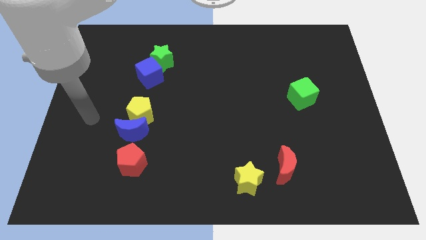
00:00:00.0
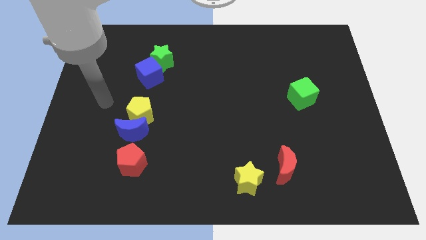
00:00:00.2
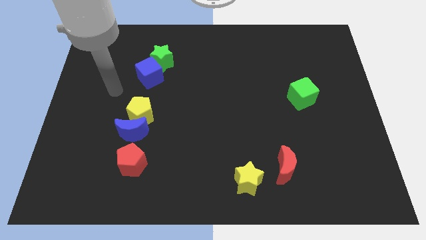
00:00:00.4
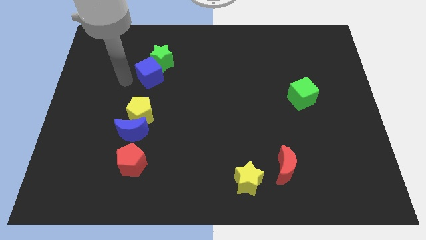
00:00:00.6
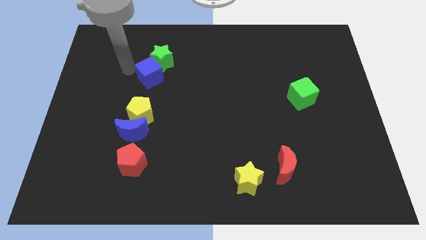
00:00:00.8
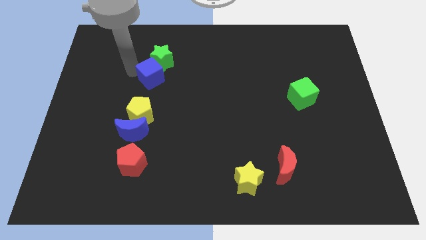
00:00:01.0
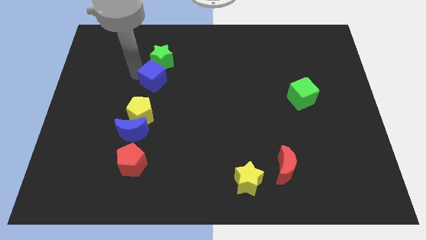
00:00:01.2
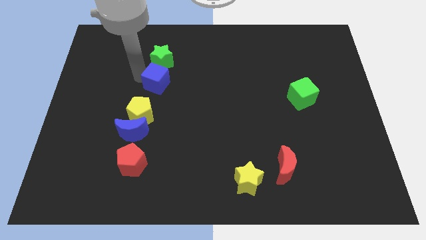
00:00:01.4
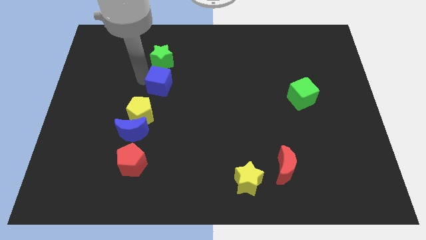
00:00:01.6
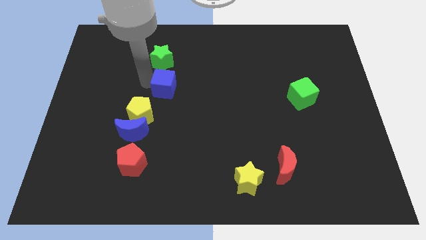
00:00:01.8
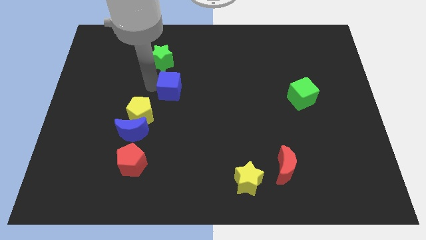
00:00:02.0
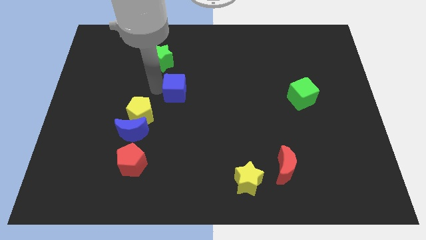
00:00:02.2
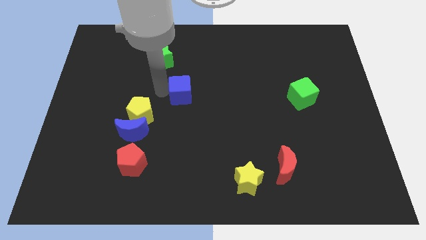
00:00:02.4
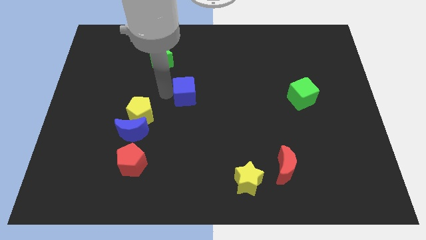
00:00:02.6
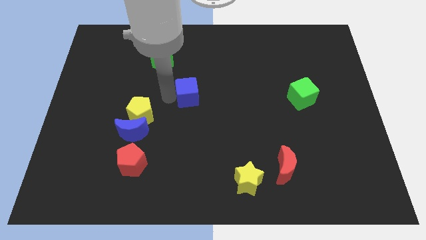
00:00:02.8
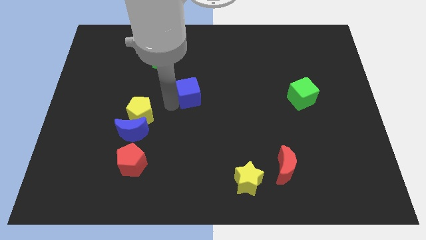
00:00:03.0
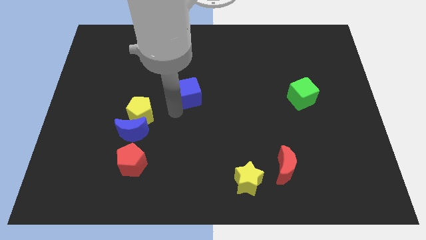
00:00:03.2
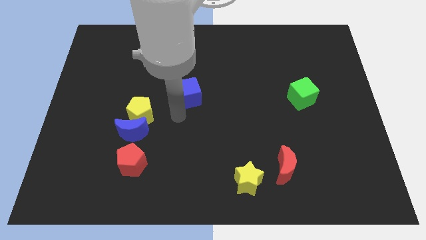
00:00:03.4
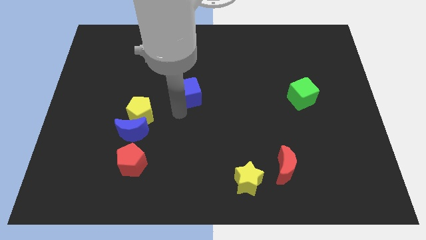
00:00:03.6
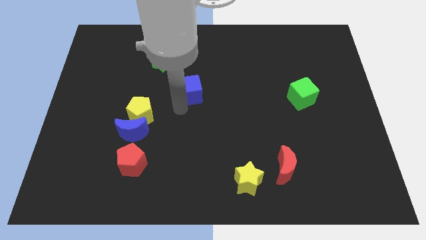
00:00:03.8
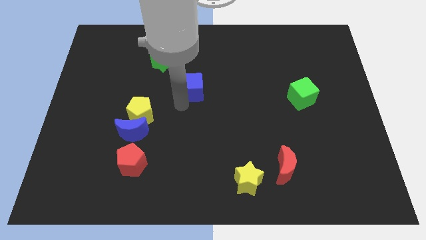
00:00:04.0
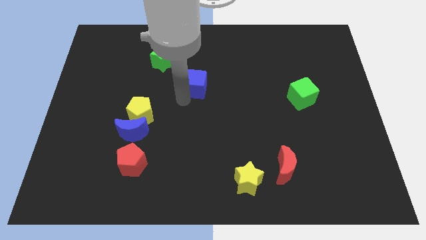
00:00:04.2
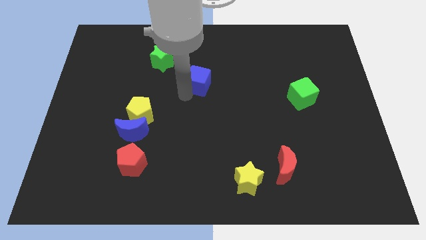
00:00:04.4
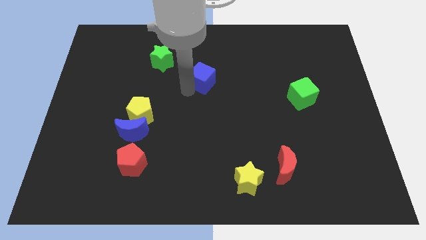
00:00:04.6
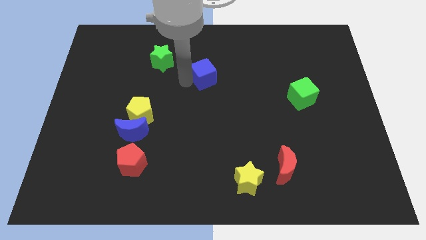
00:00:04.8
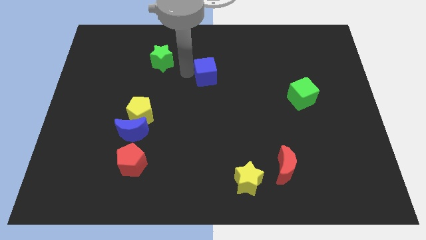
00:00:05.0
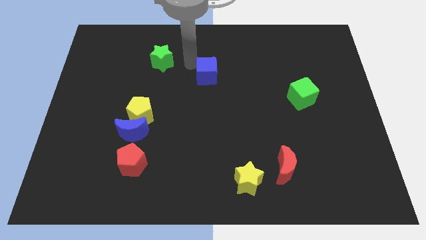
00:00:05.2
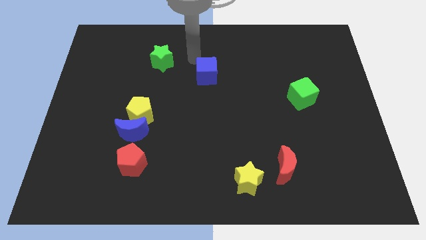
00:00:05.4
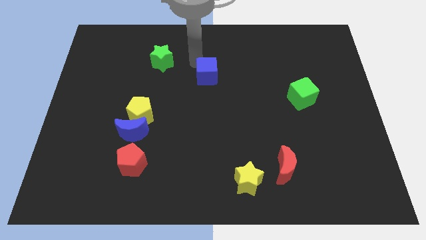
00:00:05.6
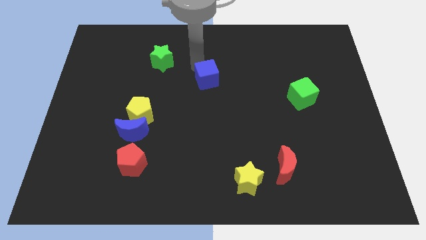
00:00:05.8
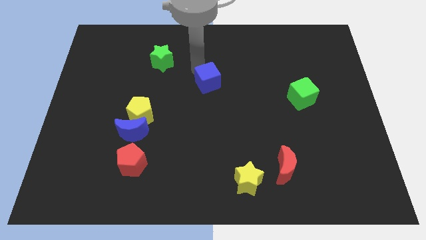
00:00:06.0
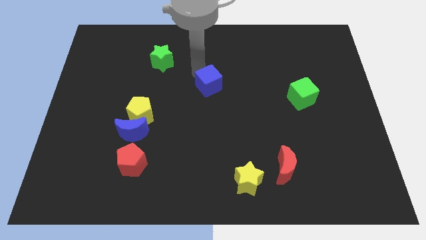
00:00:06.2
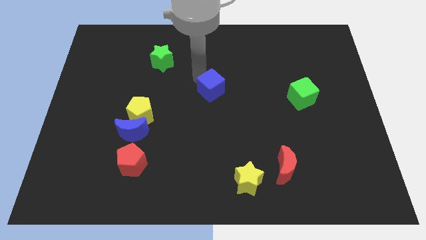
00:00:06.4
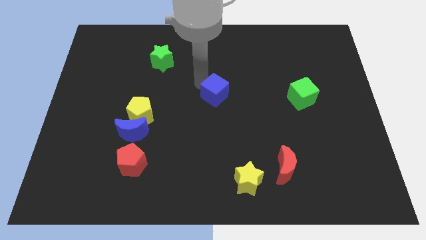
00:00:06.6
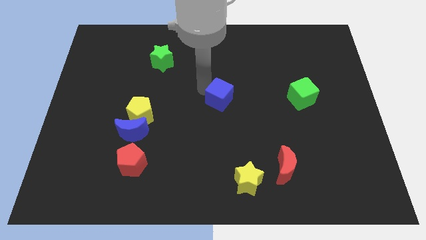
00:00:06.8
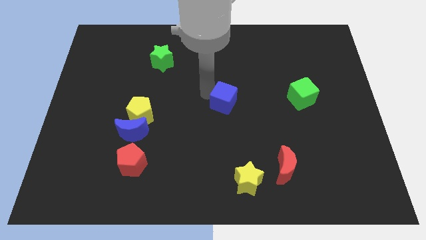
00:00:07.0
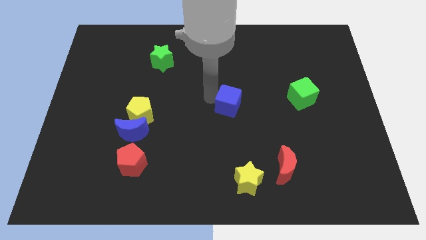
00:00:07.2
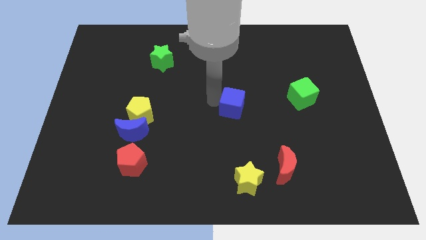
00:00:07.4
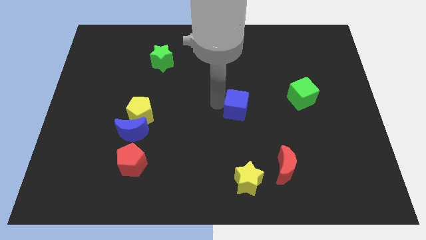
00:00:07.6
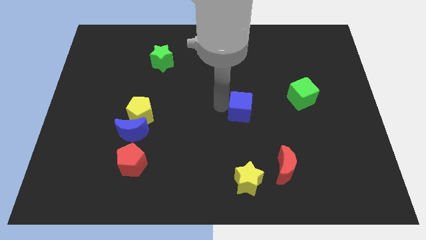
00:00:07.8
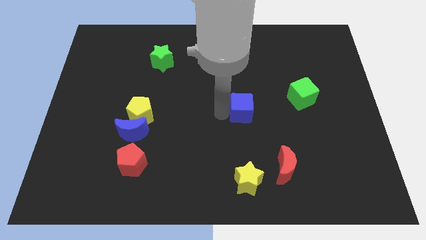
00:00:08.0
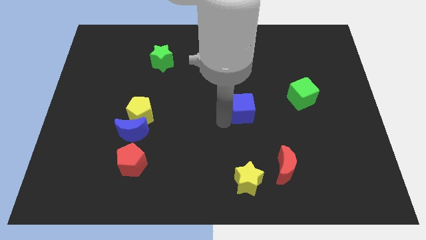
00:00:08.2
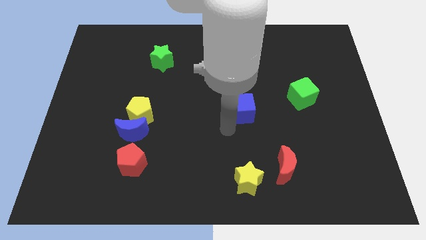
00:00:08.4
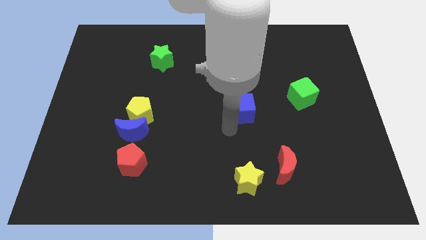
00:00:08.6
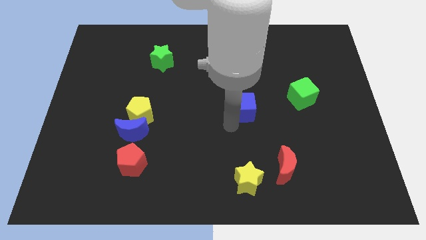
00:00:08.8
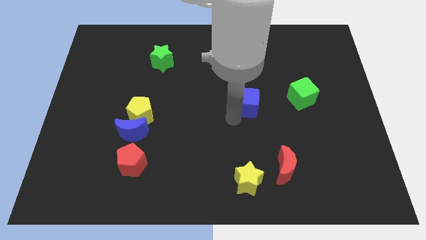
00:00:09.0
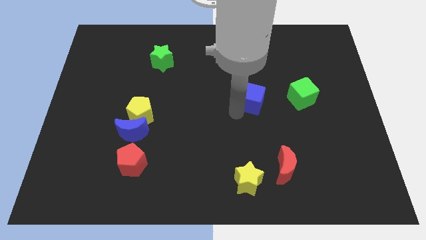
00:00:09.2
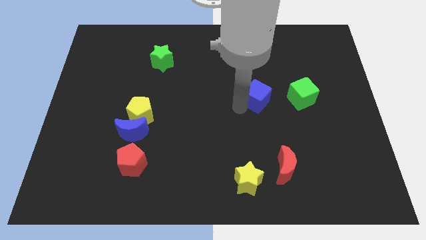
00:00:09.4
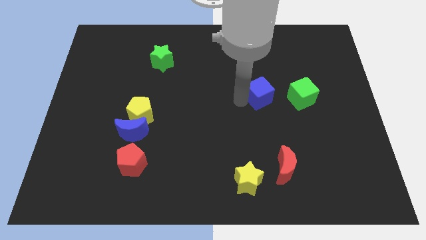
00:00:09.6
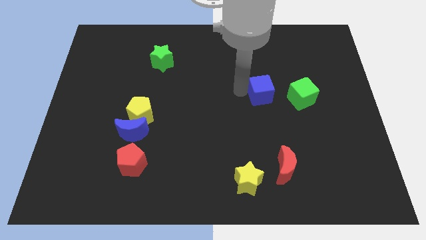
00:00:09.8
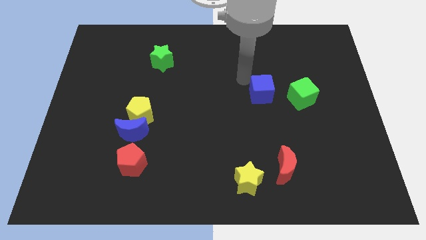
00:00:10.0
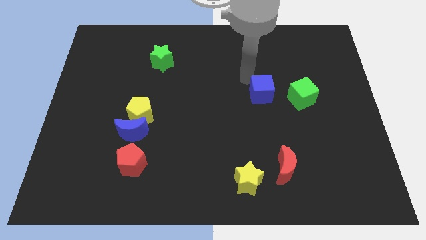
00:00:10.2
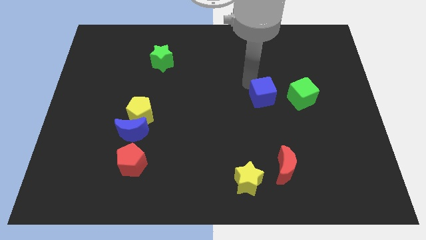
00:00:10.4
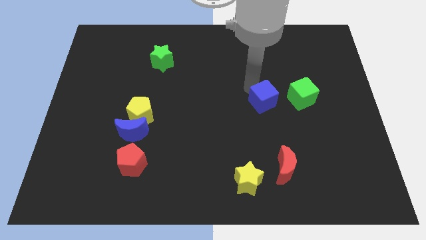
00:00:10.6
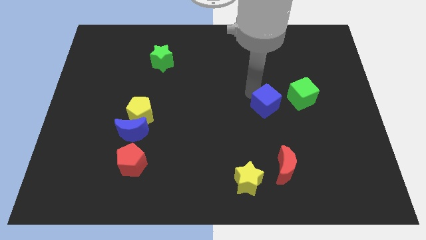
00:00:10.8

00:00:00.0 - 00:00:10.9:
push the blue cube to the bottom left side of the green cube

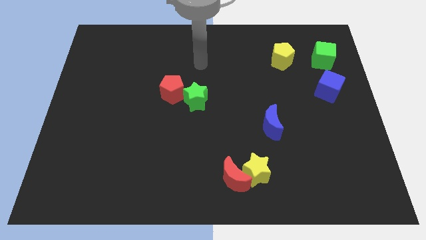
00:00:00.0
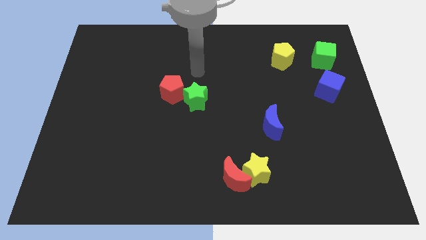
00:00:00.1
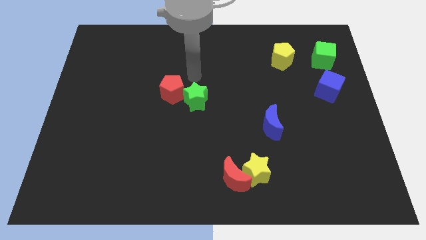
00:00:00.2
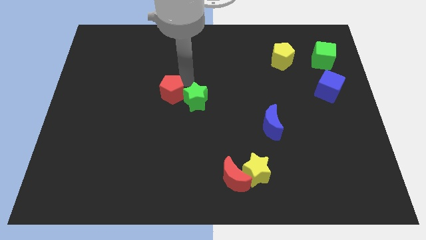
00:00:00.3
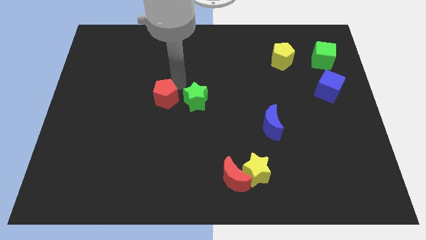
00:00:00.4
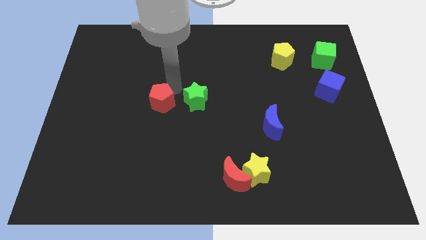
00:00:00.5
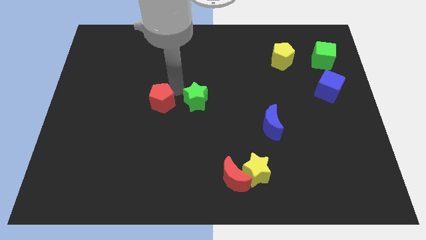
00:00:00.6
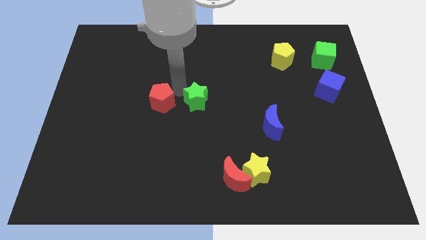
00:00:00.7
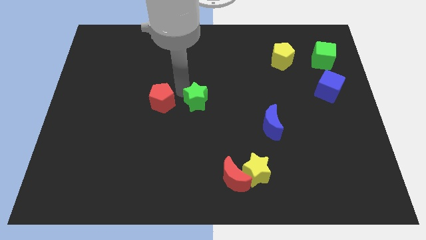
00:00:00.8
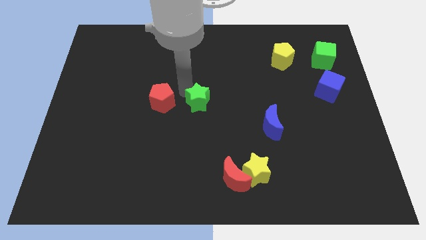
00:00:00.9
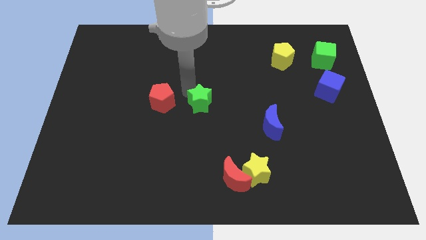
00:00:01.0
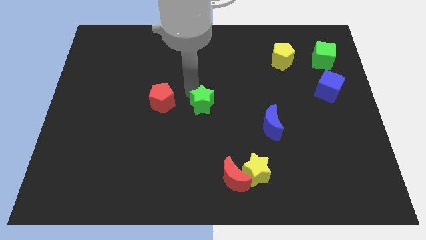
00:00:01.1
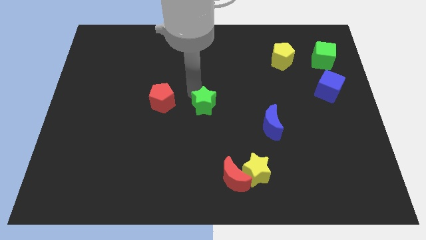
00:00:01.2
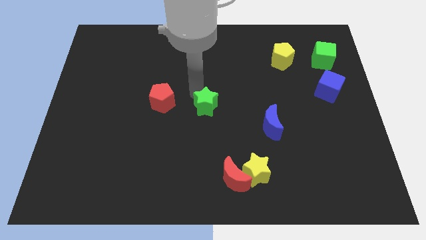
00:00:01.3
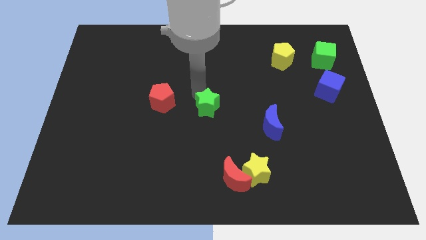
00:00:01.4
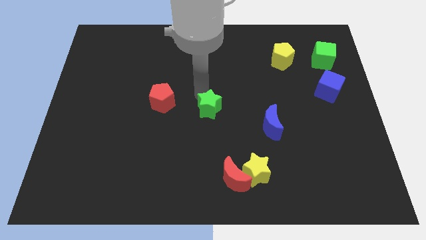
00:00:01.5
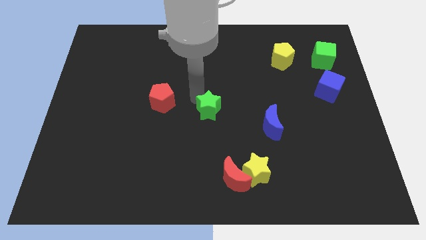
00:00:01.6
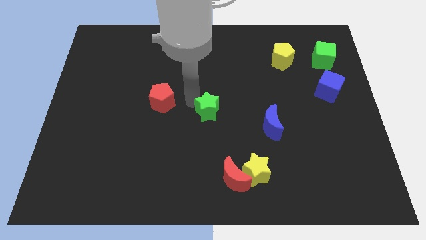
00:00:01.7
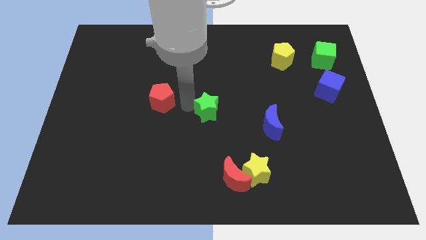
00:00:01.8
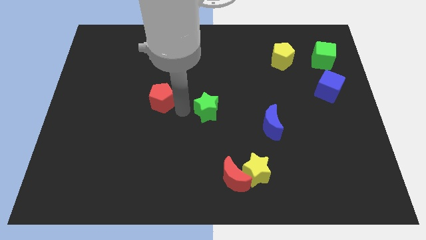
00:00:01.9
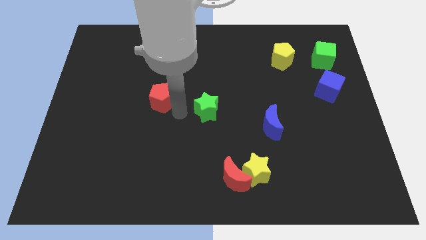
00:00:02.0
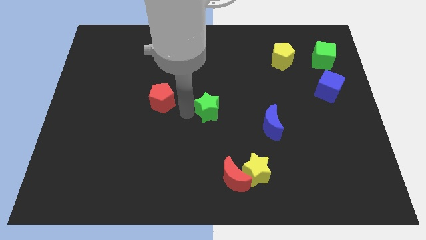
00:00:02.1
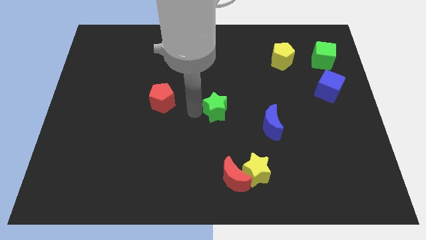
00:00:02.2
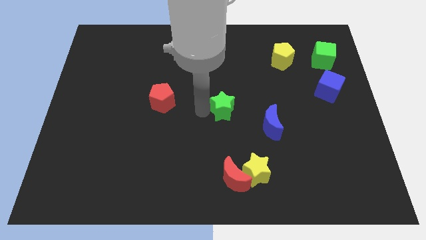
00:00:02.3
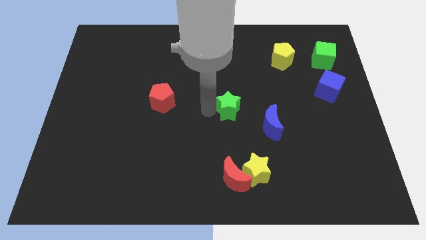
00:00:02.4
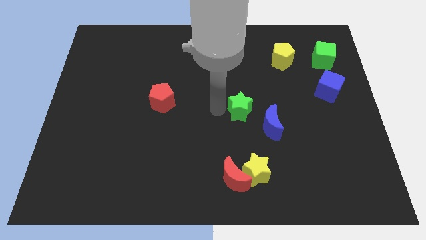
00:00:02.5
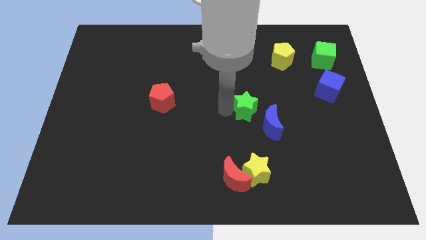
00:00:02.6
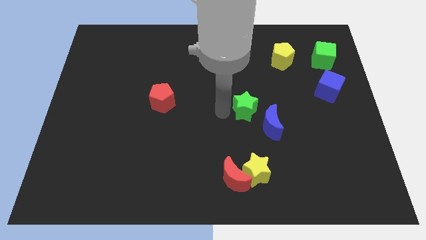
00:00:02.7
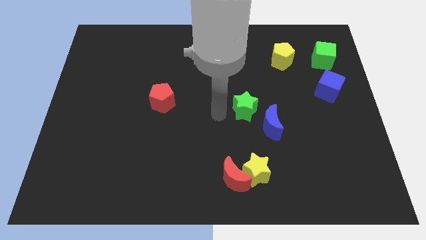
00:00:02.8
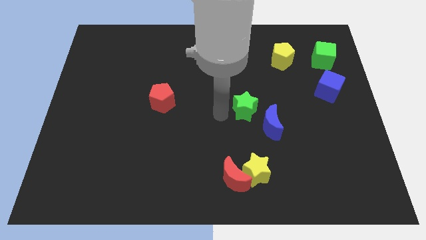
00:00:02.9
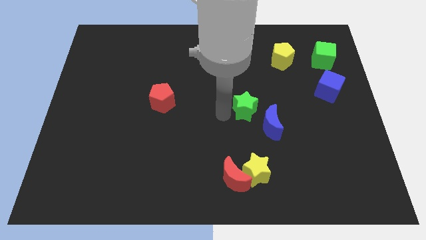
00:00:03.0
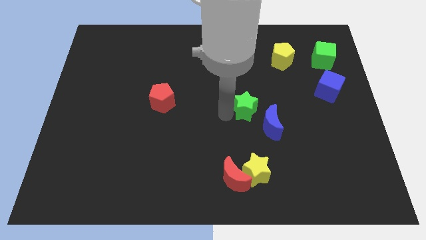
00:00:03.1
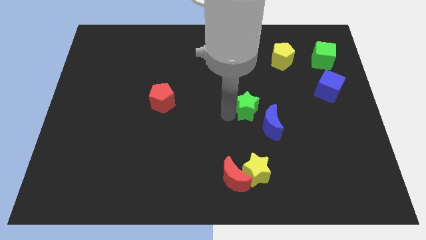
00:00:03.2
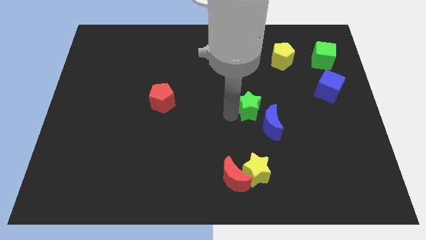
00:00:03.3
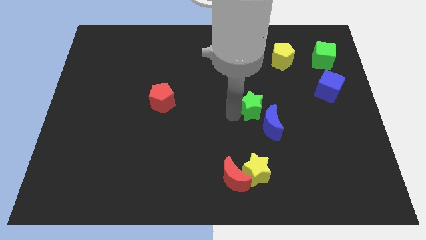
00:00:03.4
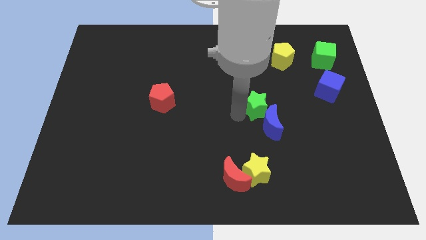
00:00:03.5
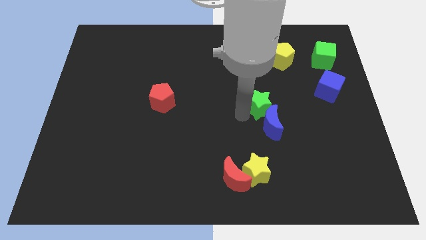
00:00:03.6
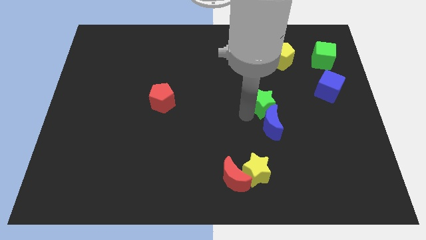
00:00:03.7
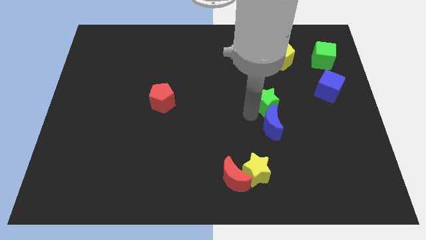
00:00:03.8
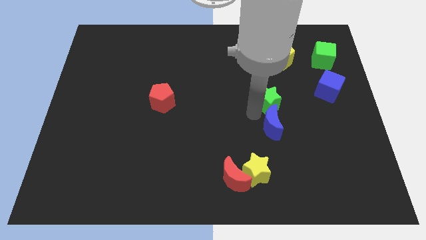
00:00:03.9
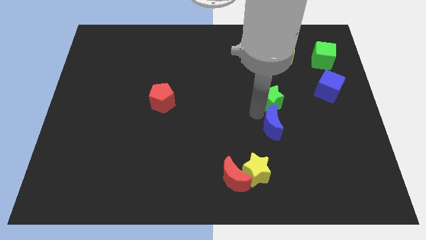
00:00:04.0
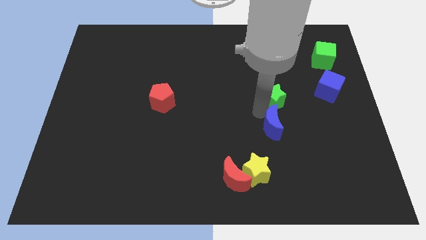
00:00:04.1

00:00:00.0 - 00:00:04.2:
put the green star below the yellow pentagon
